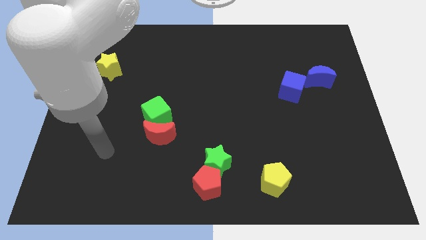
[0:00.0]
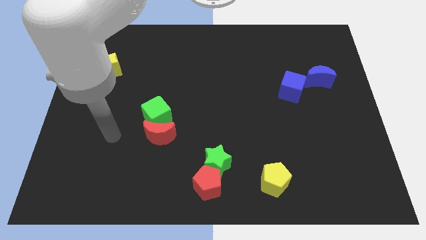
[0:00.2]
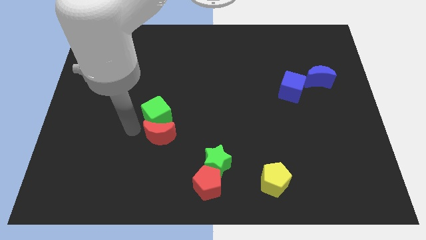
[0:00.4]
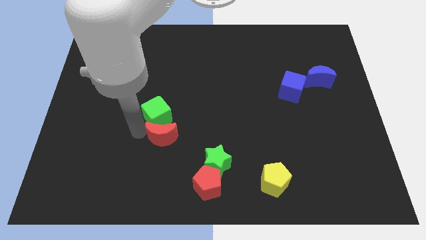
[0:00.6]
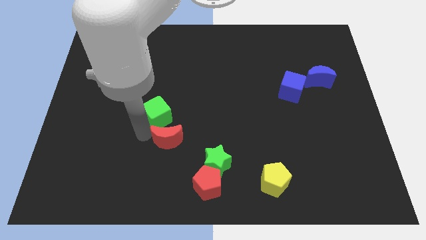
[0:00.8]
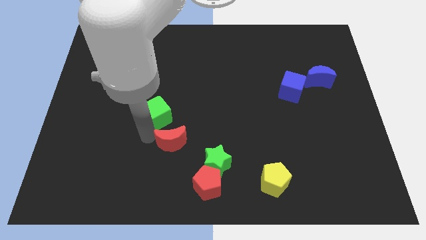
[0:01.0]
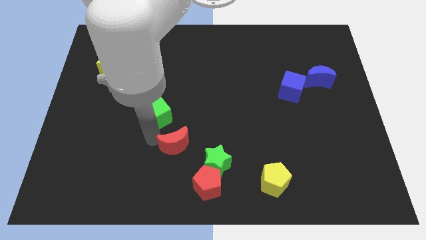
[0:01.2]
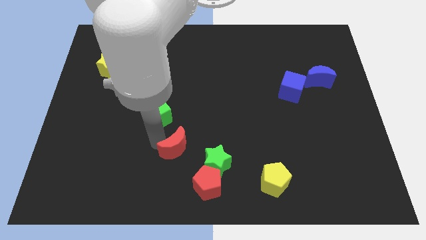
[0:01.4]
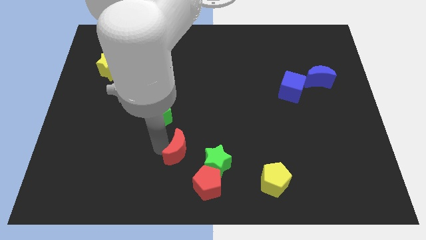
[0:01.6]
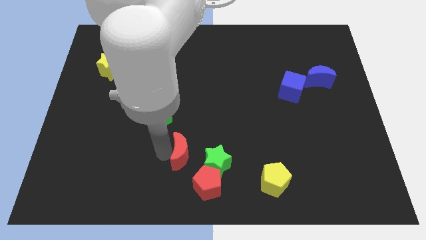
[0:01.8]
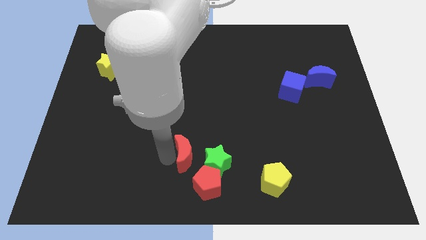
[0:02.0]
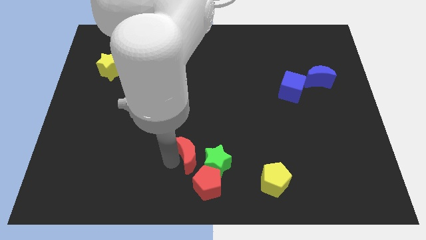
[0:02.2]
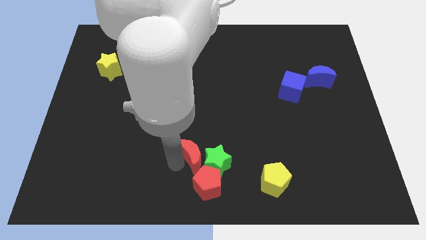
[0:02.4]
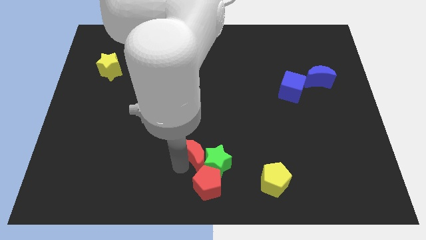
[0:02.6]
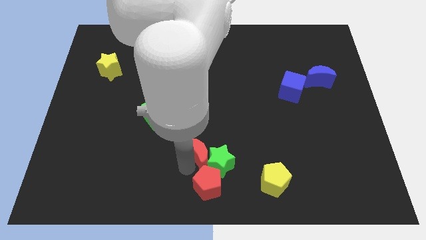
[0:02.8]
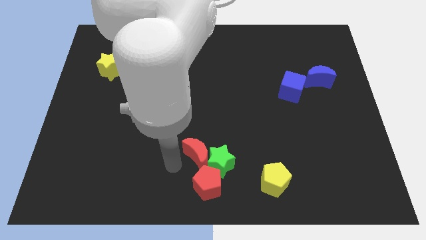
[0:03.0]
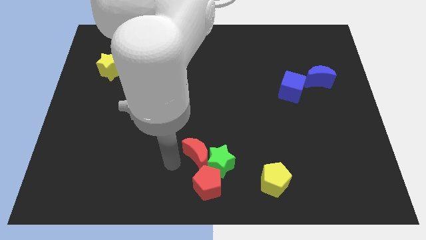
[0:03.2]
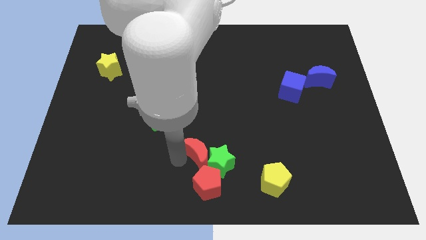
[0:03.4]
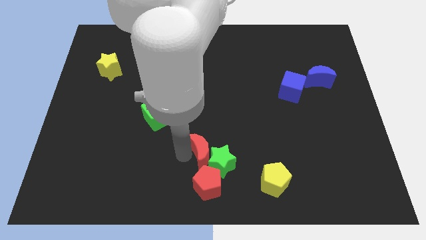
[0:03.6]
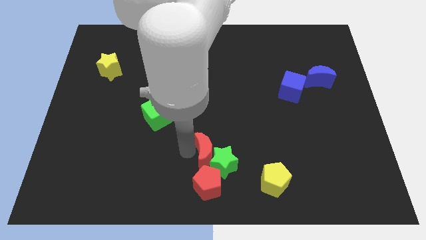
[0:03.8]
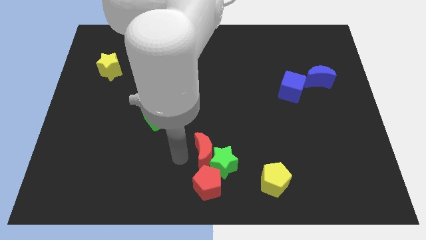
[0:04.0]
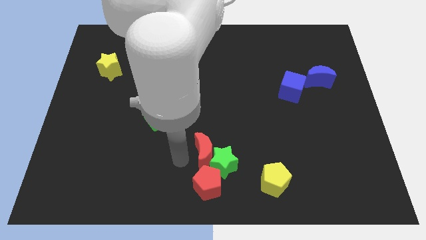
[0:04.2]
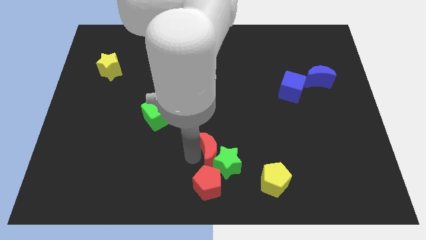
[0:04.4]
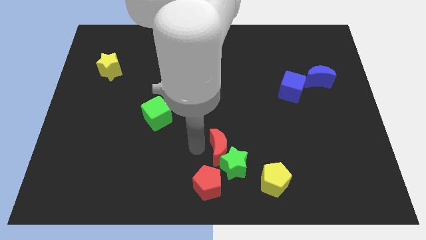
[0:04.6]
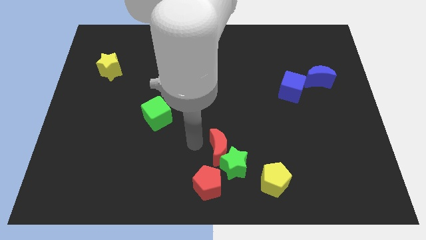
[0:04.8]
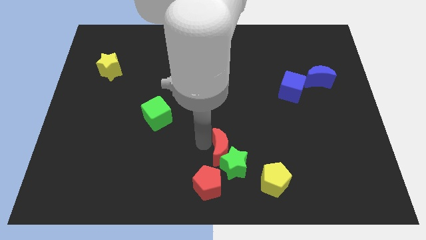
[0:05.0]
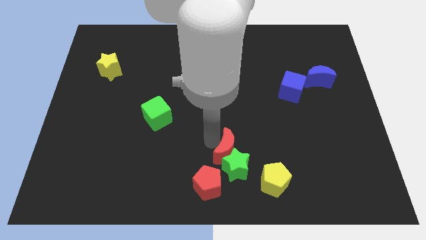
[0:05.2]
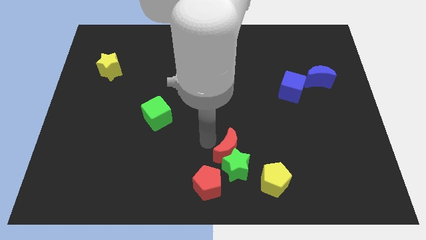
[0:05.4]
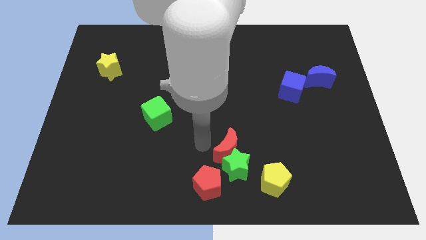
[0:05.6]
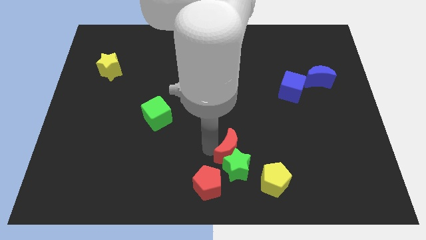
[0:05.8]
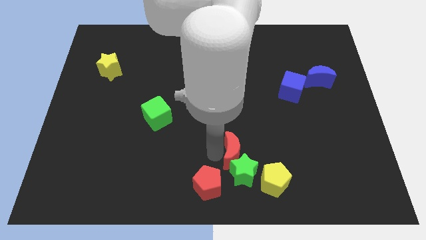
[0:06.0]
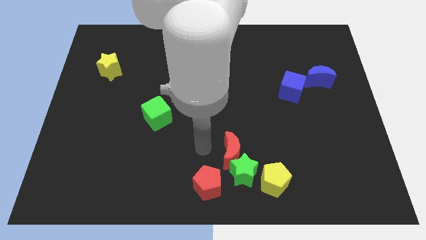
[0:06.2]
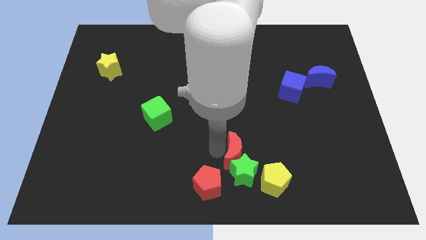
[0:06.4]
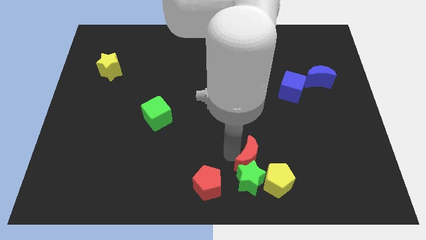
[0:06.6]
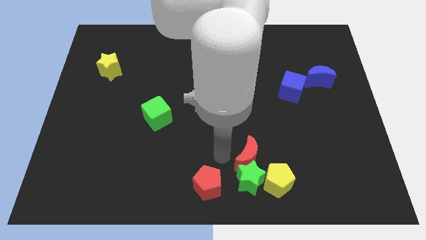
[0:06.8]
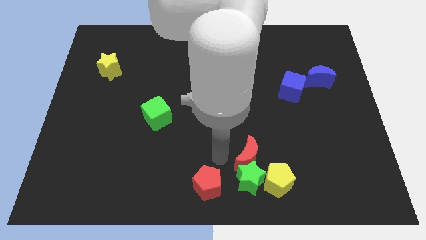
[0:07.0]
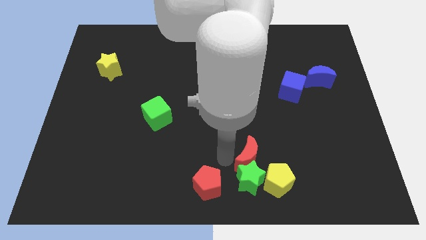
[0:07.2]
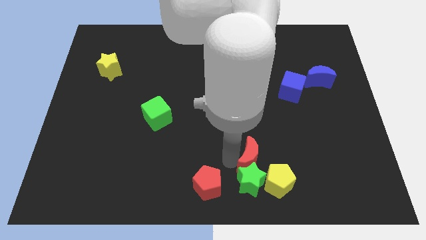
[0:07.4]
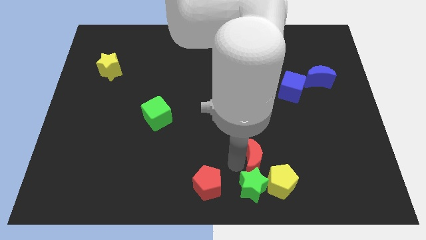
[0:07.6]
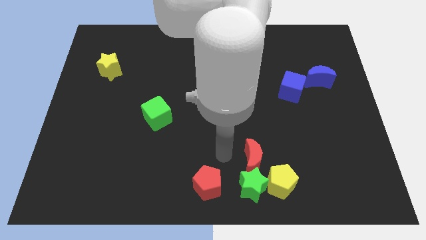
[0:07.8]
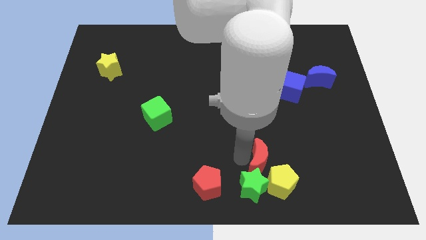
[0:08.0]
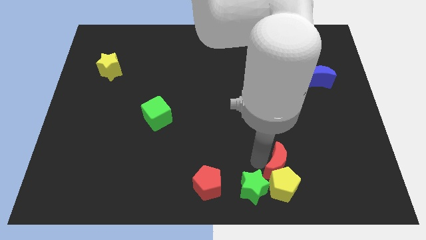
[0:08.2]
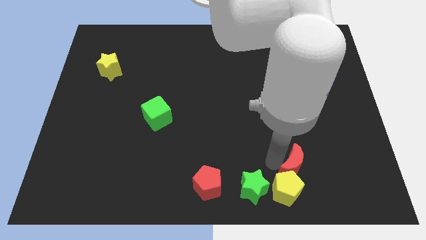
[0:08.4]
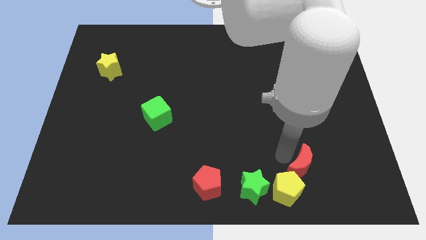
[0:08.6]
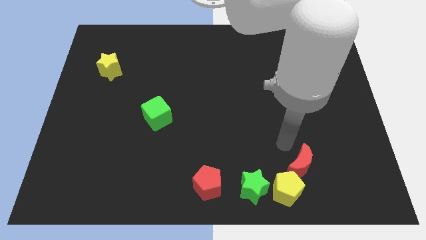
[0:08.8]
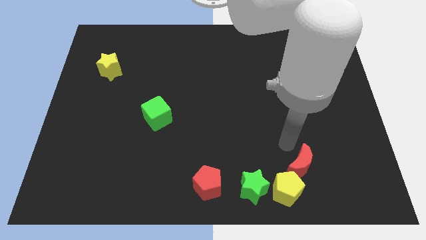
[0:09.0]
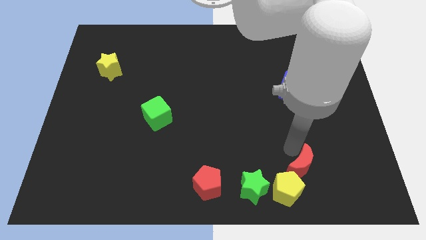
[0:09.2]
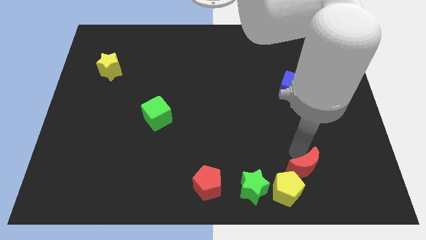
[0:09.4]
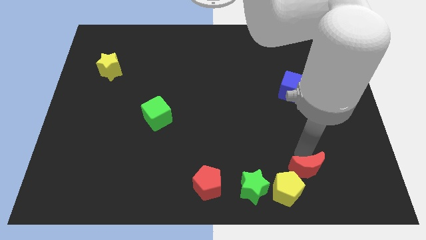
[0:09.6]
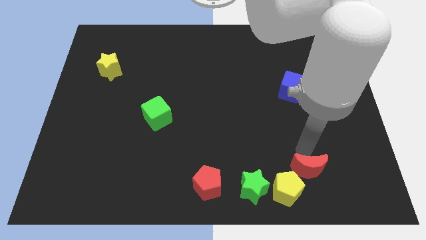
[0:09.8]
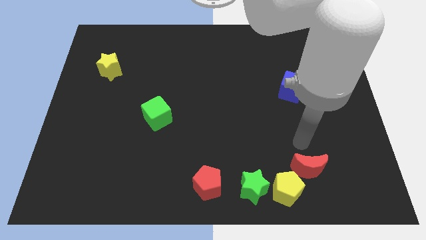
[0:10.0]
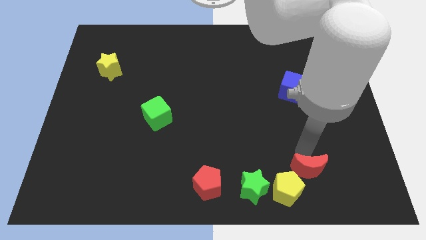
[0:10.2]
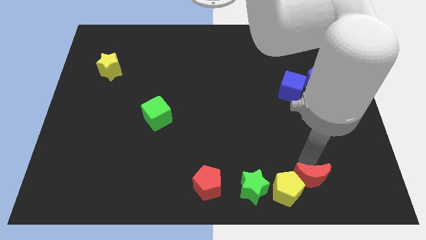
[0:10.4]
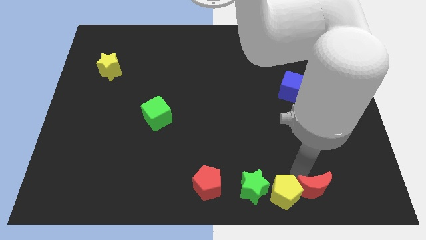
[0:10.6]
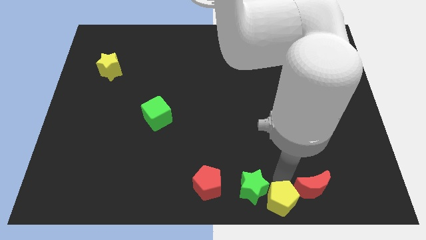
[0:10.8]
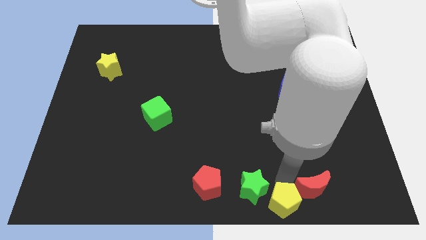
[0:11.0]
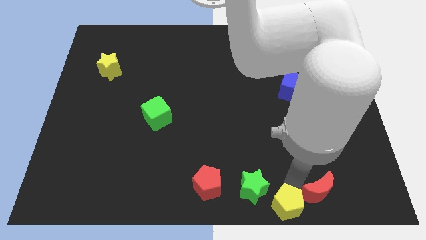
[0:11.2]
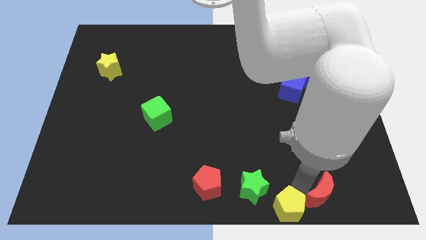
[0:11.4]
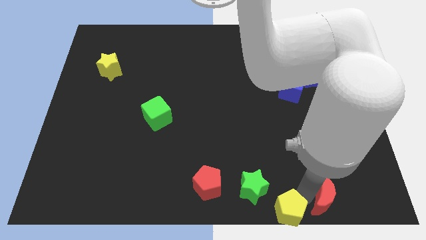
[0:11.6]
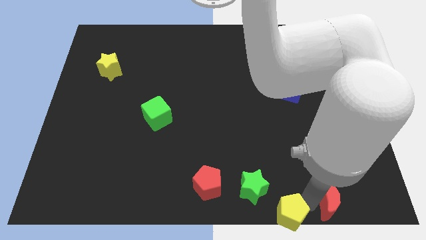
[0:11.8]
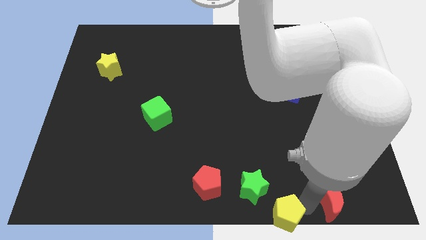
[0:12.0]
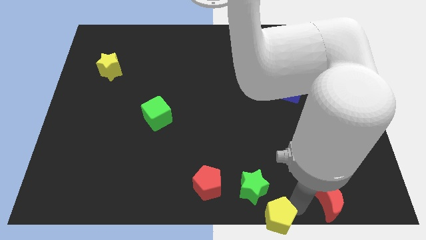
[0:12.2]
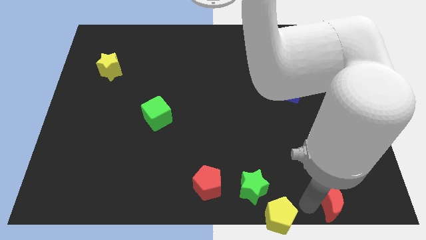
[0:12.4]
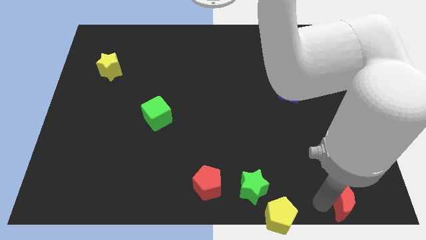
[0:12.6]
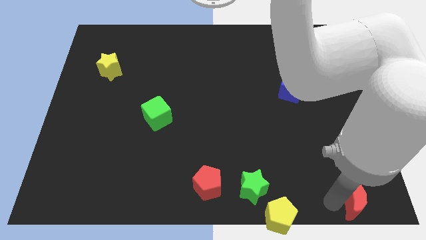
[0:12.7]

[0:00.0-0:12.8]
push the red moon to the lower right corner
